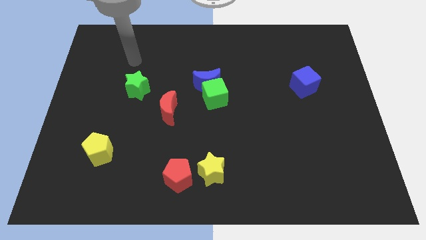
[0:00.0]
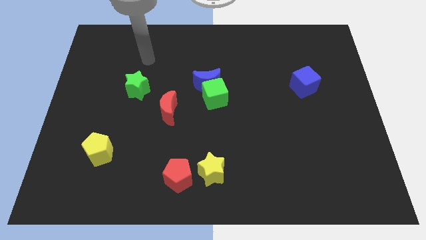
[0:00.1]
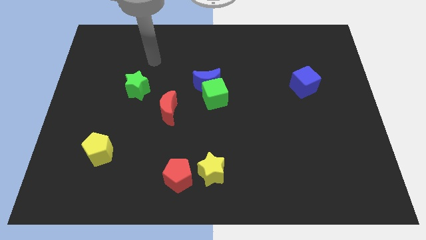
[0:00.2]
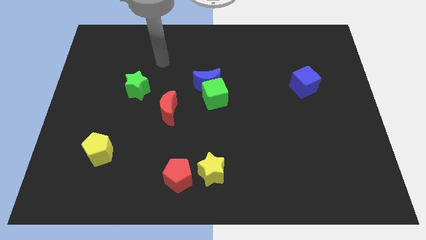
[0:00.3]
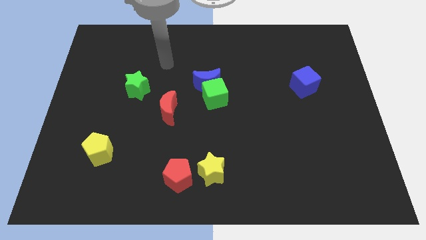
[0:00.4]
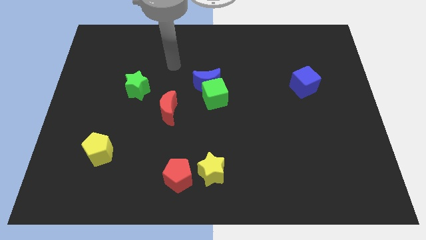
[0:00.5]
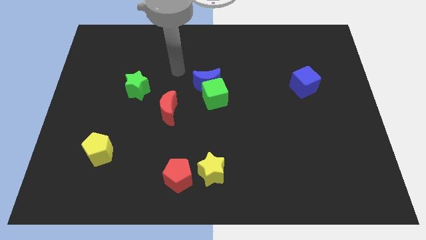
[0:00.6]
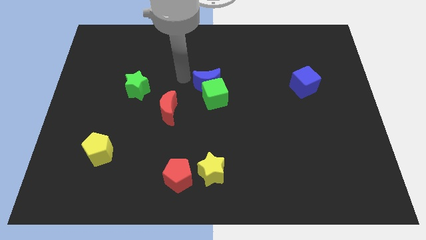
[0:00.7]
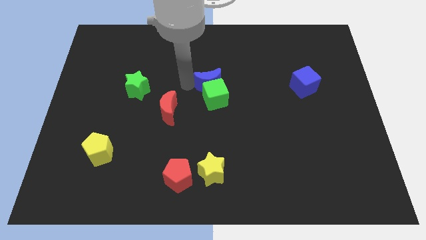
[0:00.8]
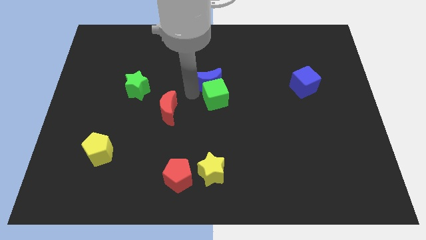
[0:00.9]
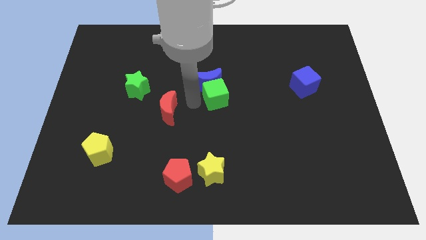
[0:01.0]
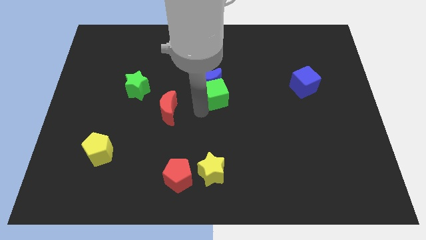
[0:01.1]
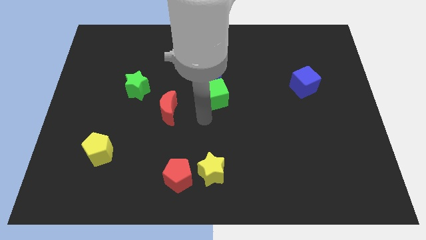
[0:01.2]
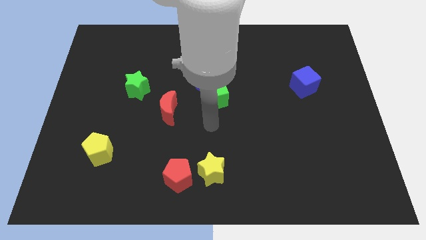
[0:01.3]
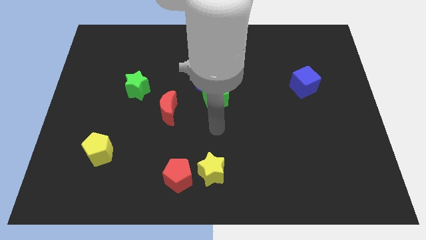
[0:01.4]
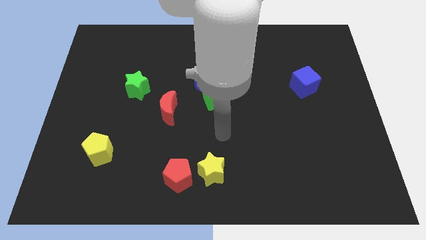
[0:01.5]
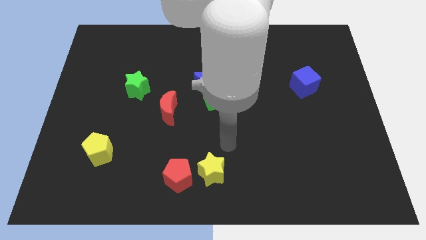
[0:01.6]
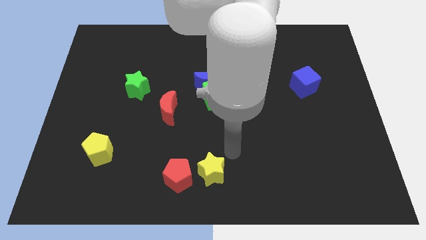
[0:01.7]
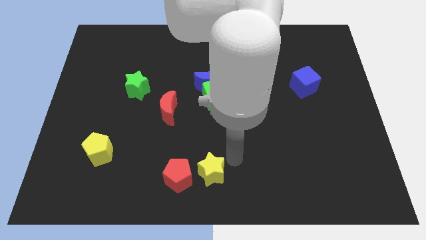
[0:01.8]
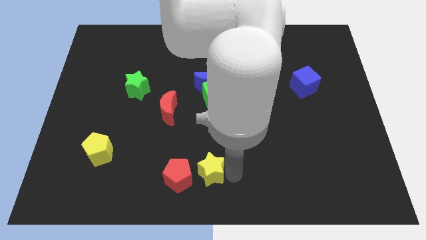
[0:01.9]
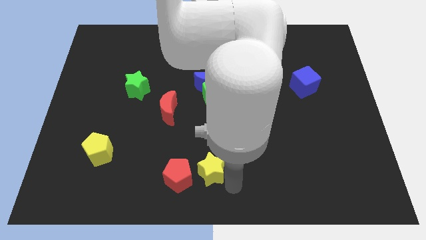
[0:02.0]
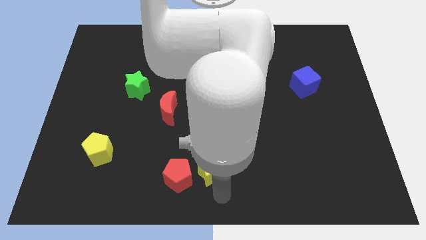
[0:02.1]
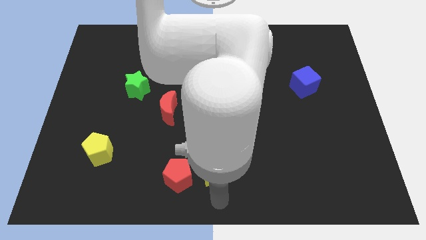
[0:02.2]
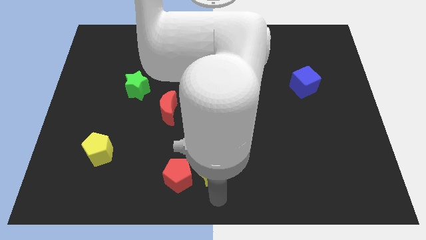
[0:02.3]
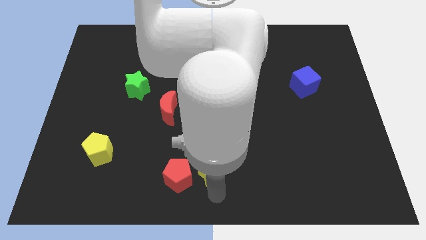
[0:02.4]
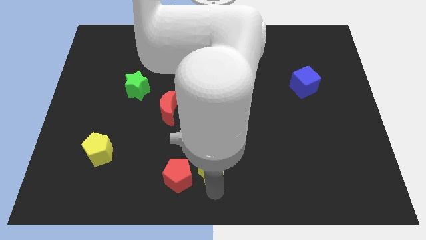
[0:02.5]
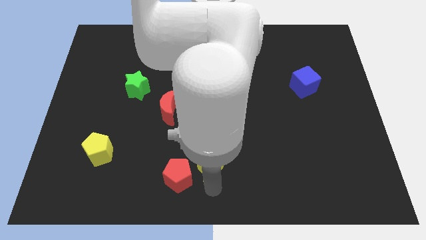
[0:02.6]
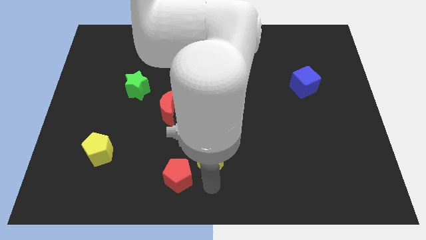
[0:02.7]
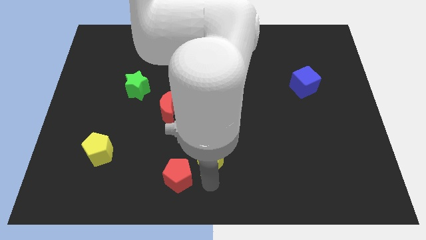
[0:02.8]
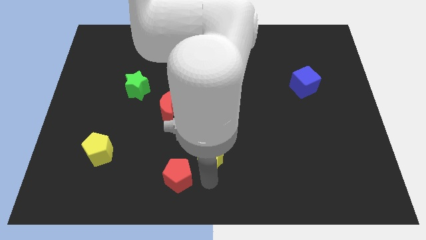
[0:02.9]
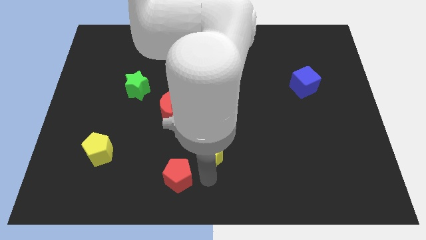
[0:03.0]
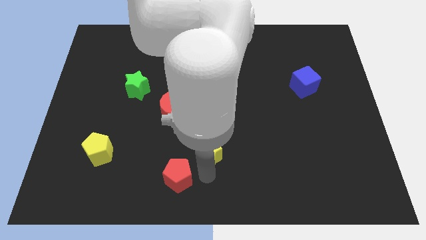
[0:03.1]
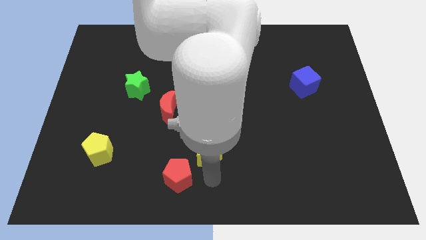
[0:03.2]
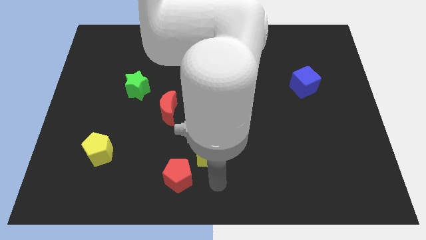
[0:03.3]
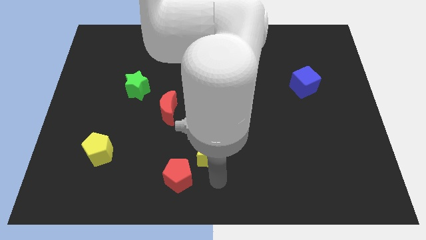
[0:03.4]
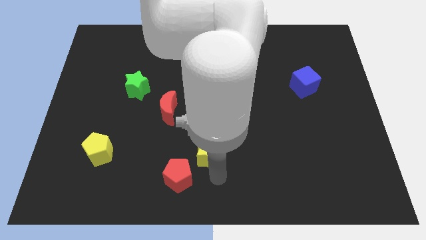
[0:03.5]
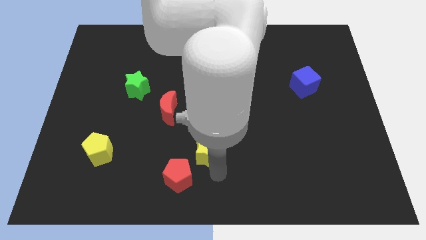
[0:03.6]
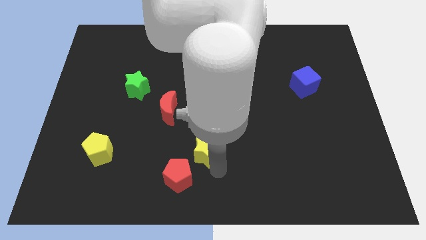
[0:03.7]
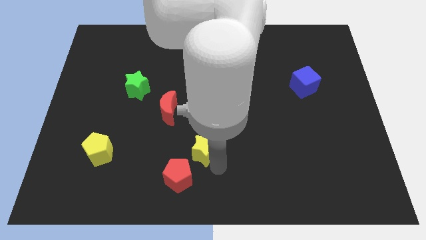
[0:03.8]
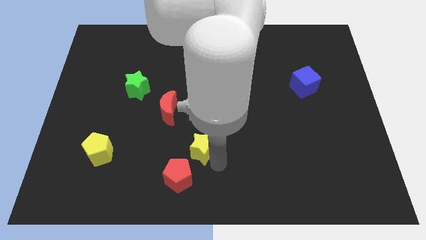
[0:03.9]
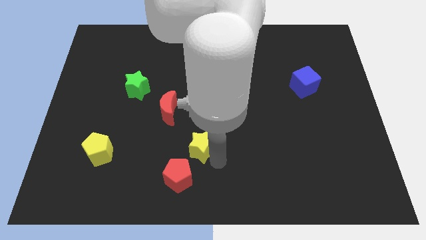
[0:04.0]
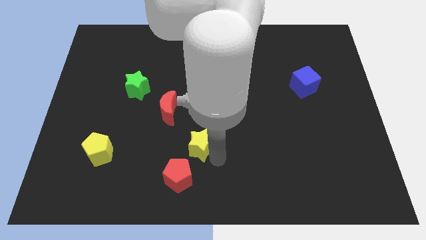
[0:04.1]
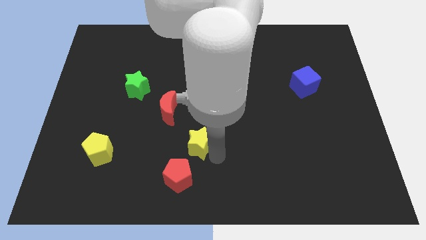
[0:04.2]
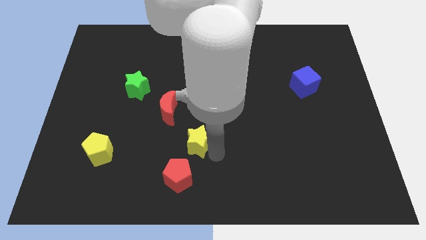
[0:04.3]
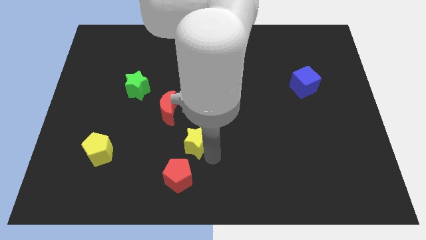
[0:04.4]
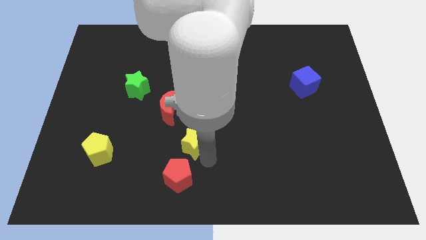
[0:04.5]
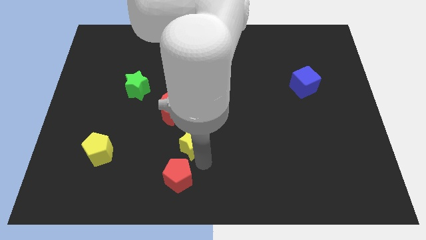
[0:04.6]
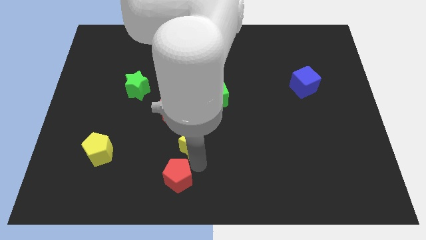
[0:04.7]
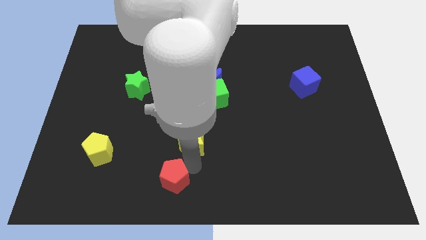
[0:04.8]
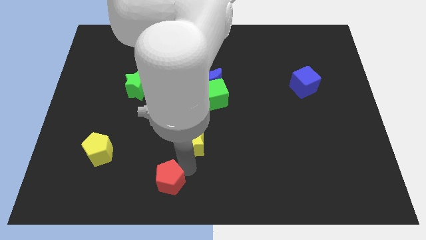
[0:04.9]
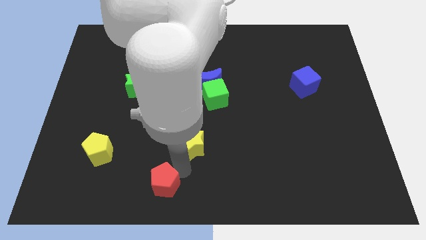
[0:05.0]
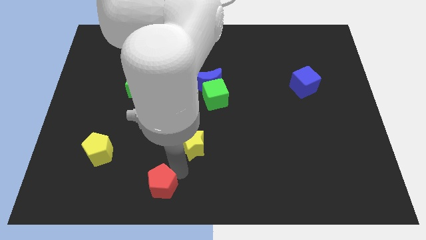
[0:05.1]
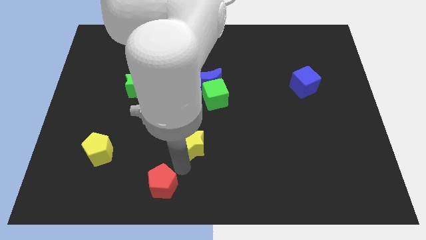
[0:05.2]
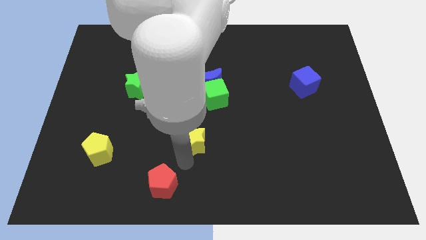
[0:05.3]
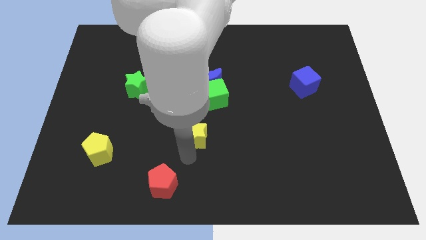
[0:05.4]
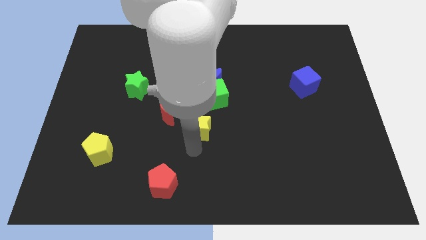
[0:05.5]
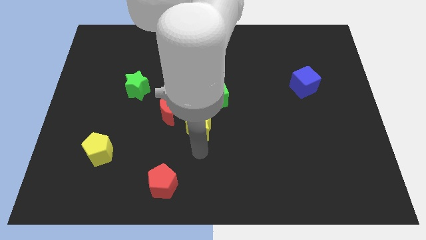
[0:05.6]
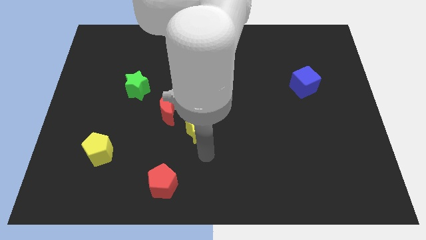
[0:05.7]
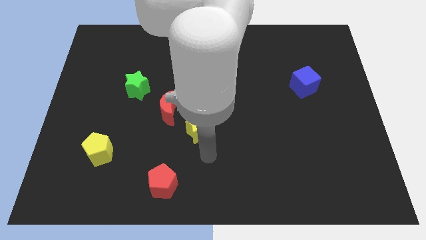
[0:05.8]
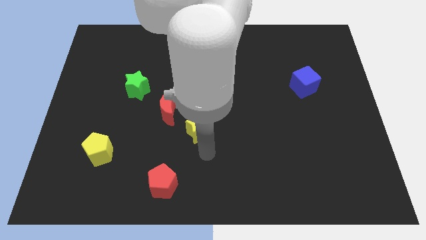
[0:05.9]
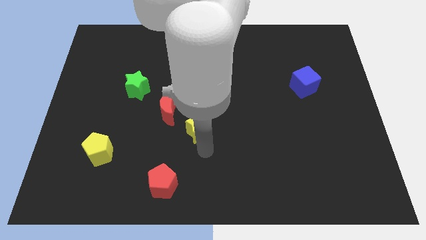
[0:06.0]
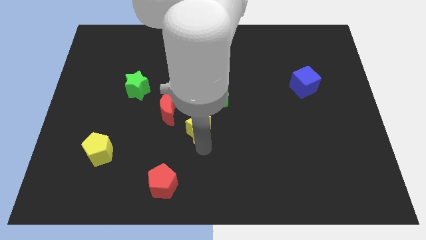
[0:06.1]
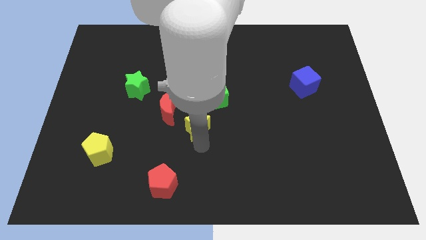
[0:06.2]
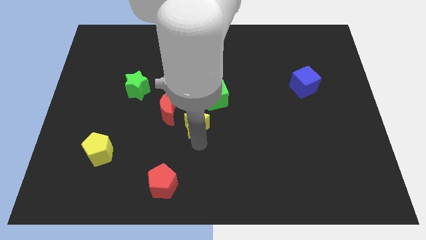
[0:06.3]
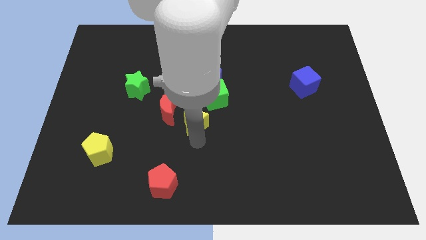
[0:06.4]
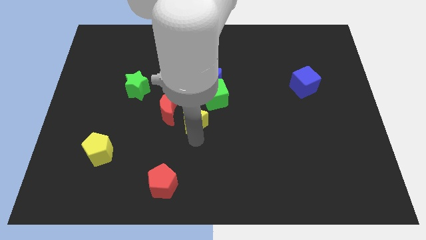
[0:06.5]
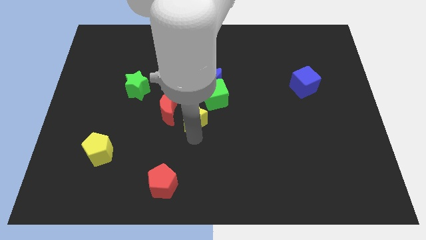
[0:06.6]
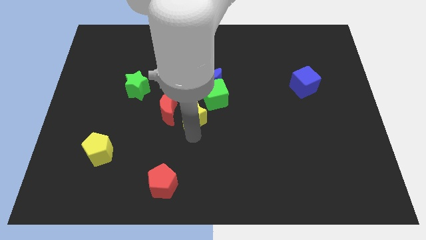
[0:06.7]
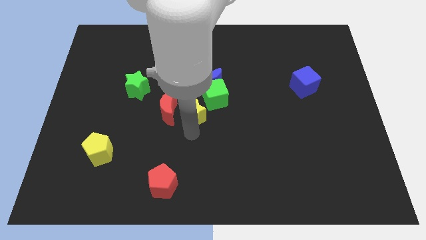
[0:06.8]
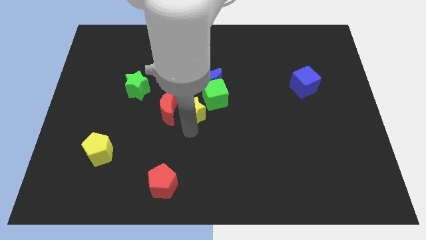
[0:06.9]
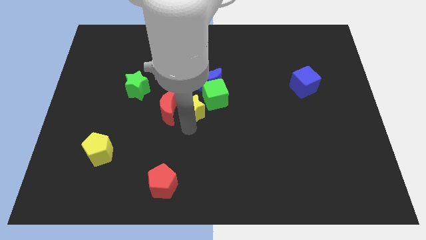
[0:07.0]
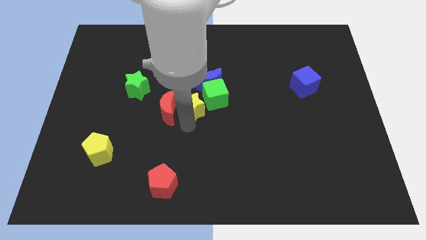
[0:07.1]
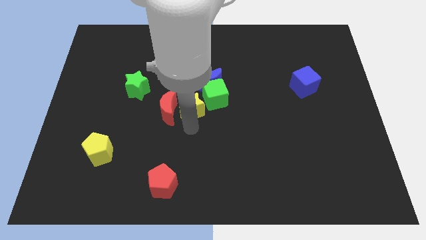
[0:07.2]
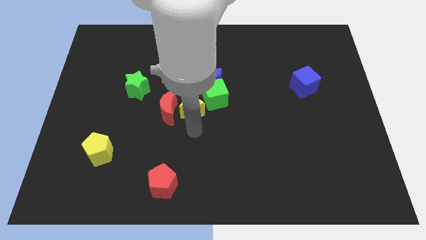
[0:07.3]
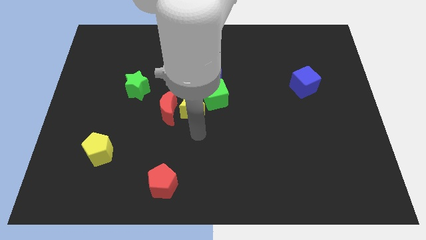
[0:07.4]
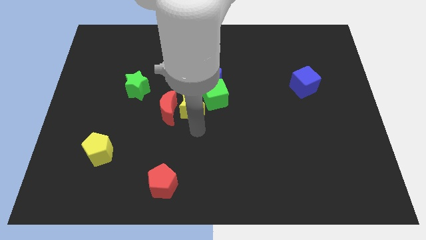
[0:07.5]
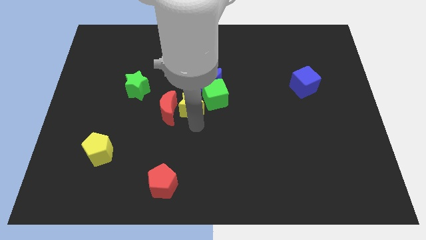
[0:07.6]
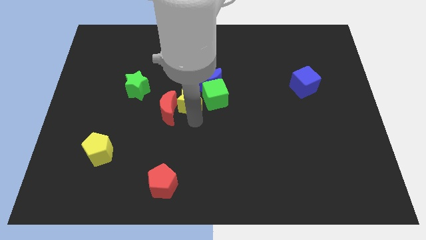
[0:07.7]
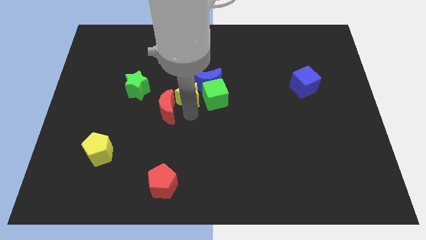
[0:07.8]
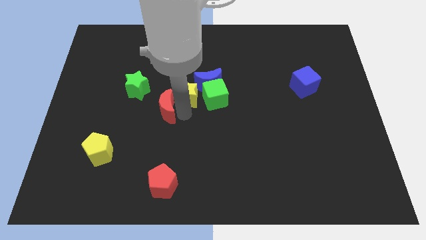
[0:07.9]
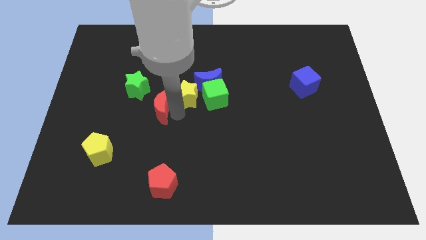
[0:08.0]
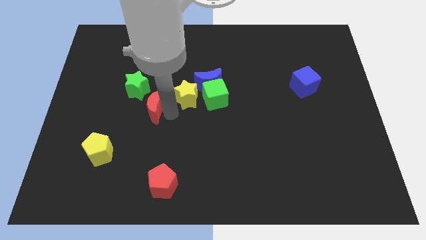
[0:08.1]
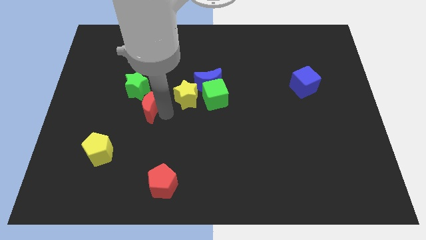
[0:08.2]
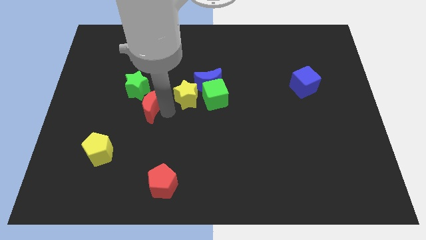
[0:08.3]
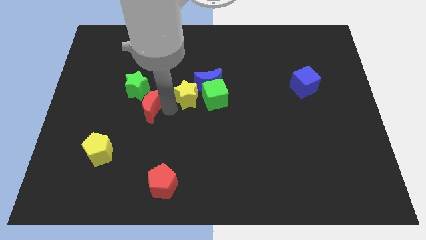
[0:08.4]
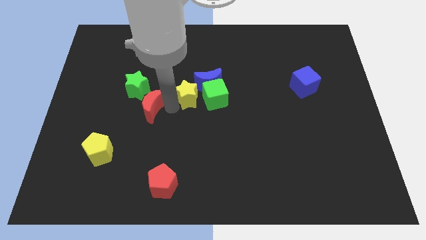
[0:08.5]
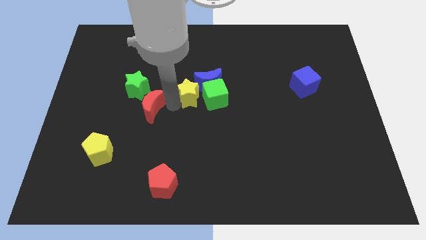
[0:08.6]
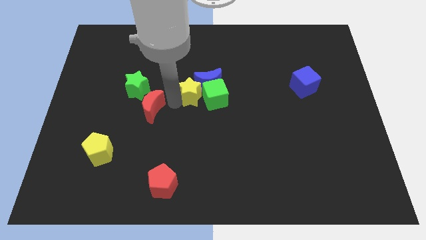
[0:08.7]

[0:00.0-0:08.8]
slide the yellow star towards the blue moon
